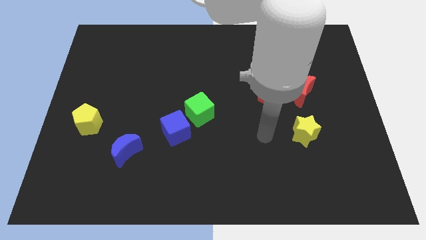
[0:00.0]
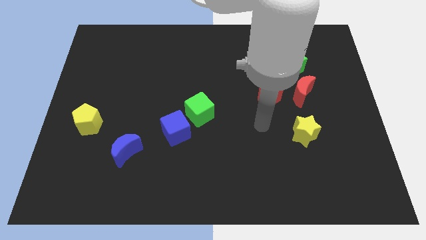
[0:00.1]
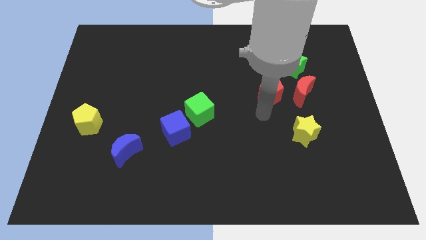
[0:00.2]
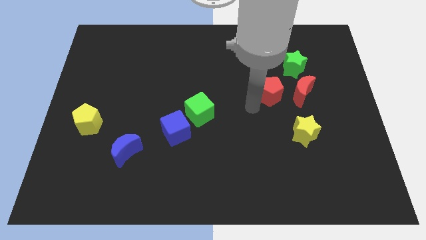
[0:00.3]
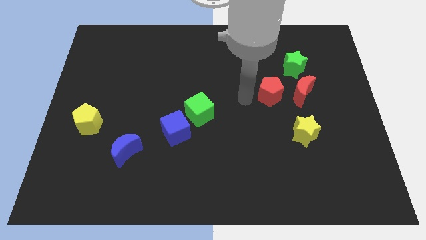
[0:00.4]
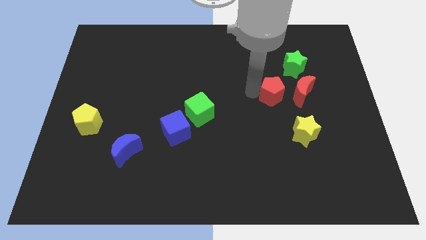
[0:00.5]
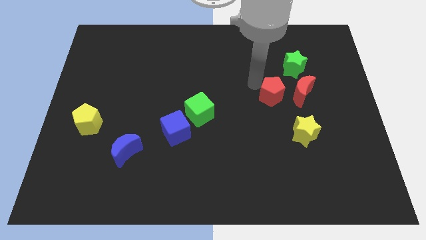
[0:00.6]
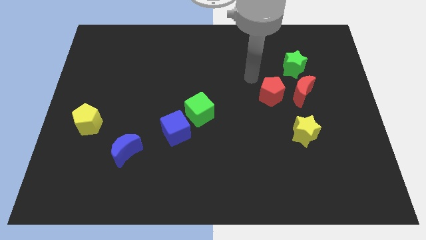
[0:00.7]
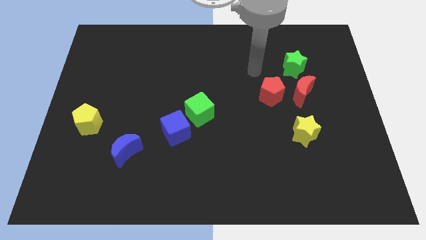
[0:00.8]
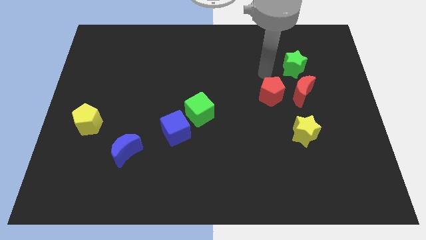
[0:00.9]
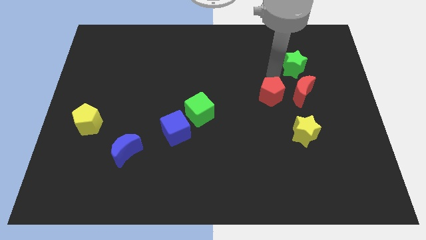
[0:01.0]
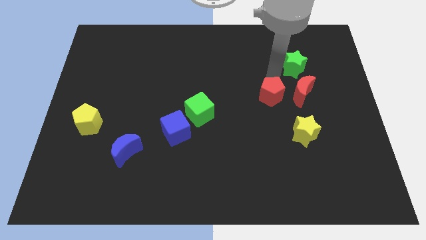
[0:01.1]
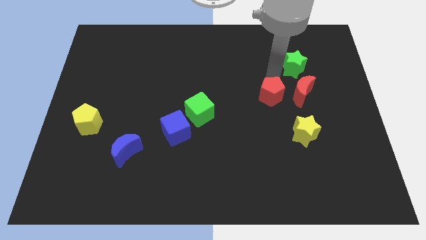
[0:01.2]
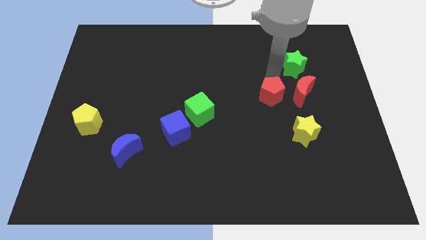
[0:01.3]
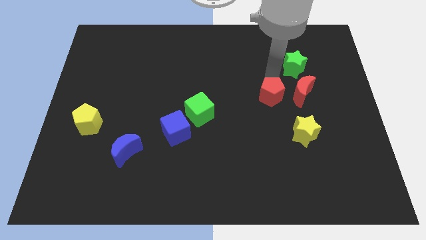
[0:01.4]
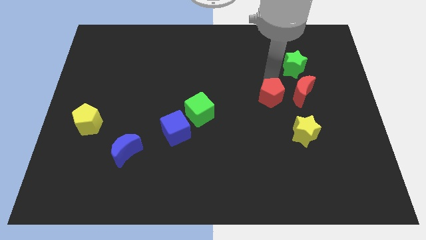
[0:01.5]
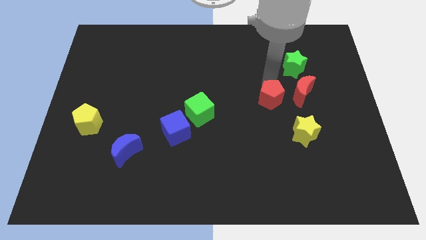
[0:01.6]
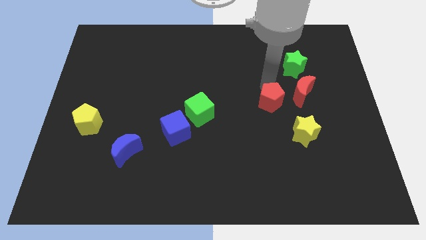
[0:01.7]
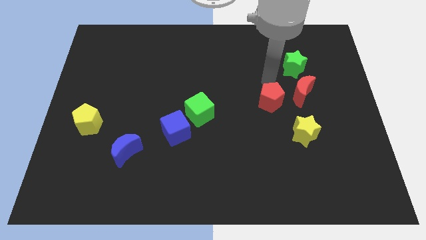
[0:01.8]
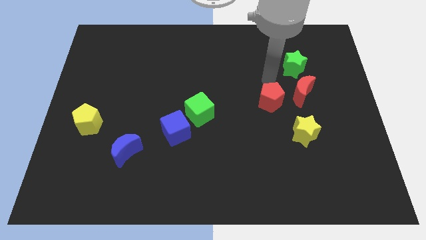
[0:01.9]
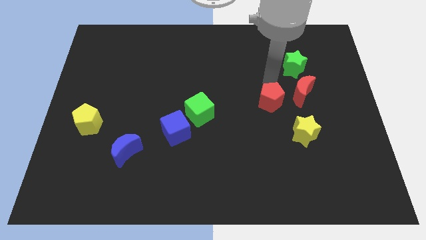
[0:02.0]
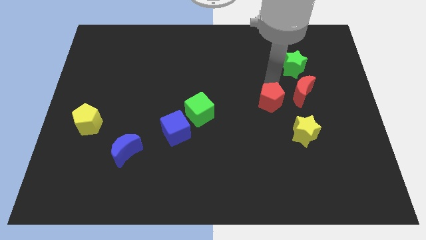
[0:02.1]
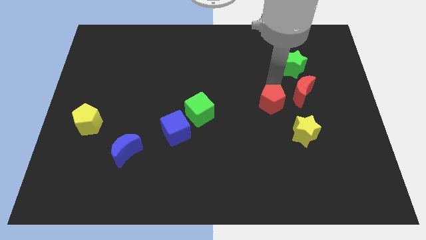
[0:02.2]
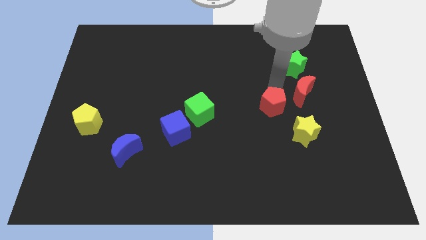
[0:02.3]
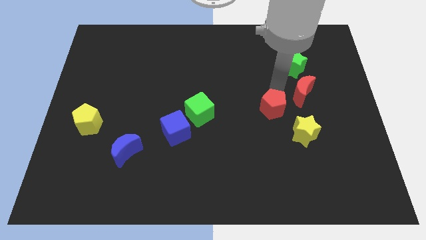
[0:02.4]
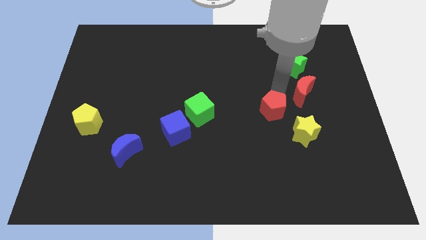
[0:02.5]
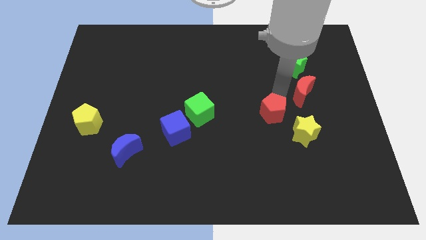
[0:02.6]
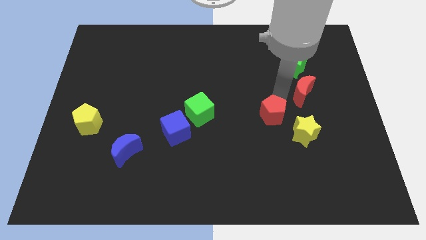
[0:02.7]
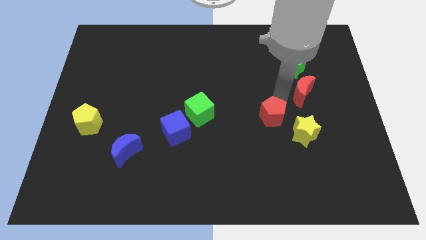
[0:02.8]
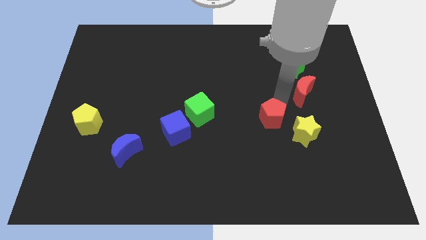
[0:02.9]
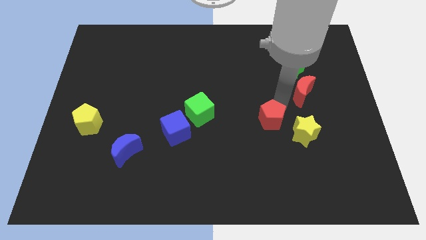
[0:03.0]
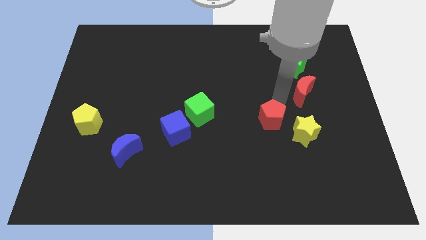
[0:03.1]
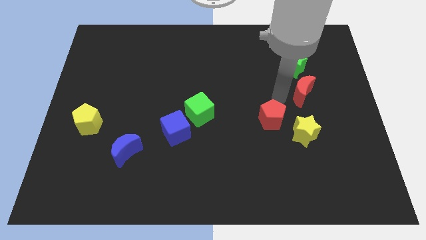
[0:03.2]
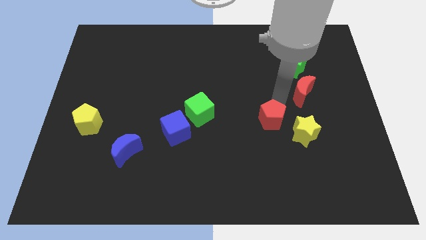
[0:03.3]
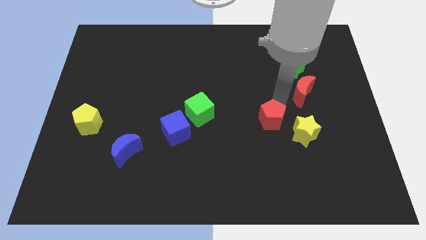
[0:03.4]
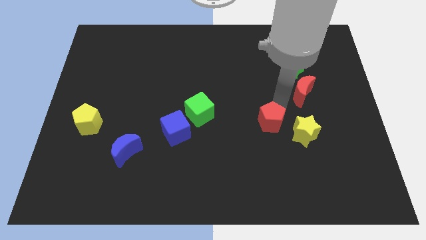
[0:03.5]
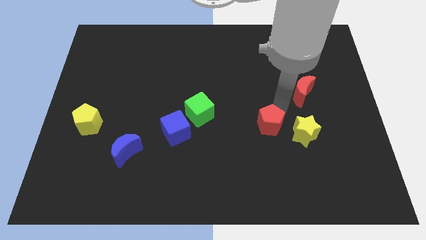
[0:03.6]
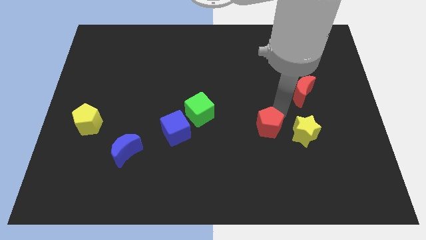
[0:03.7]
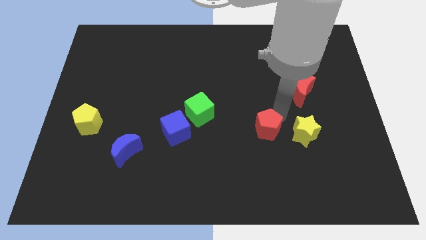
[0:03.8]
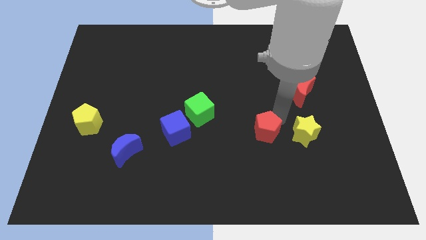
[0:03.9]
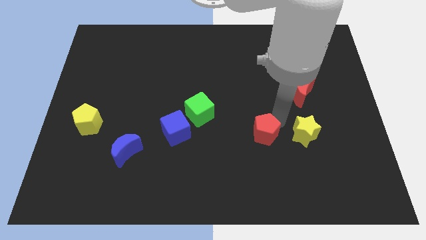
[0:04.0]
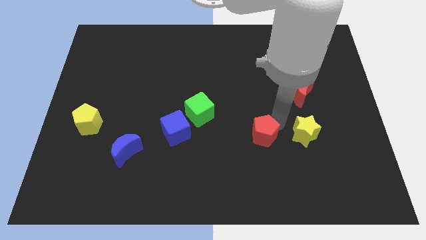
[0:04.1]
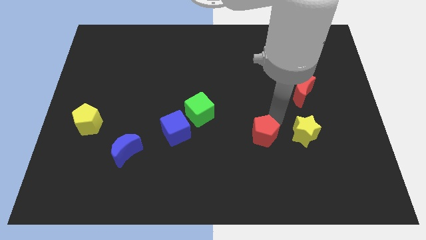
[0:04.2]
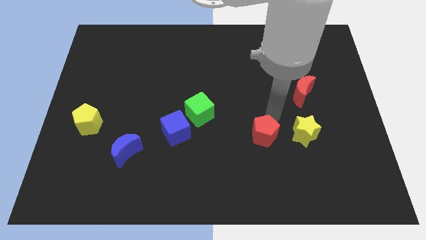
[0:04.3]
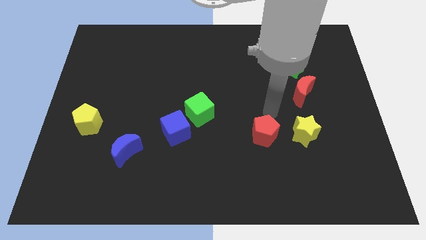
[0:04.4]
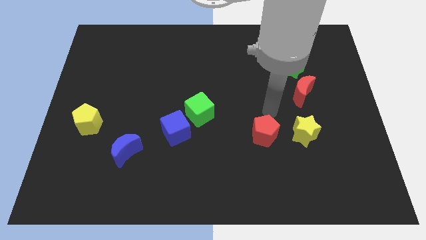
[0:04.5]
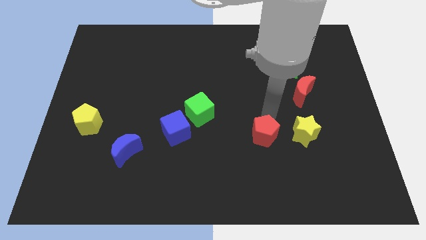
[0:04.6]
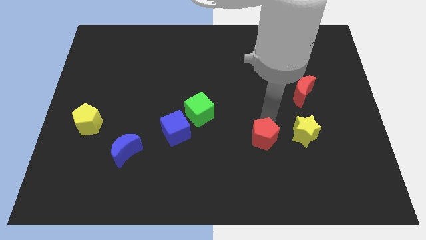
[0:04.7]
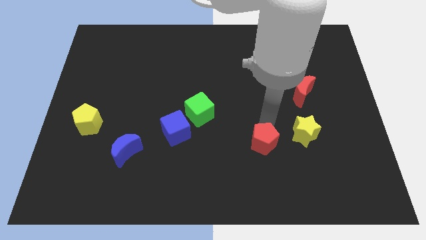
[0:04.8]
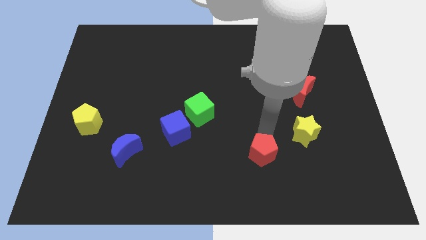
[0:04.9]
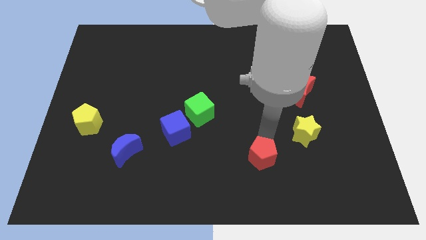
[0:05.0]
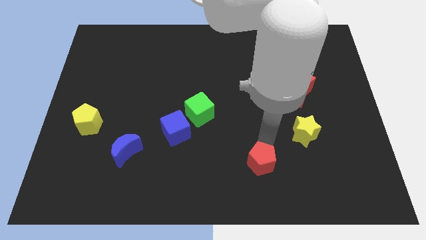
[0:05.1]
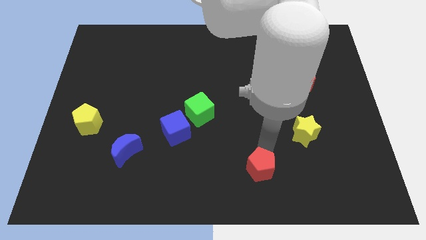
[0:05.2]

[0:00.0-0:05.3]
put the red pentagon to the bottom side

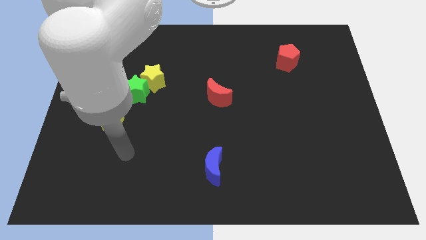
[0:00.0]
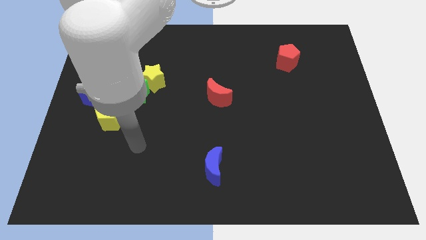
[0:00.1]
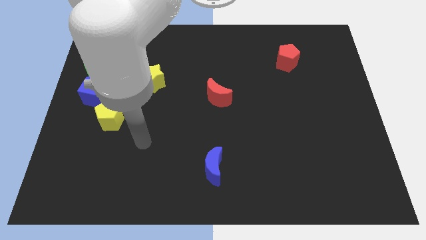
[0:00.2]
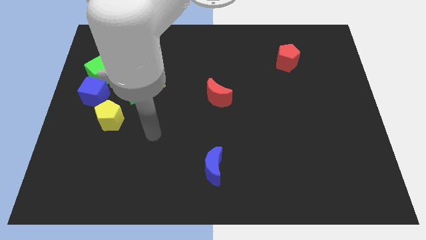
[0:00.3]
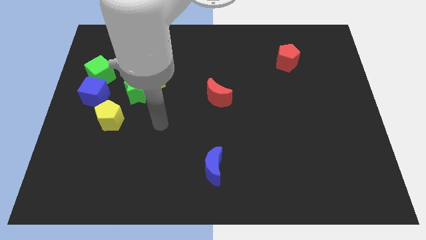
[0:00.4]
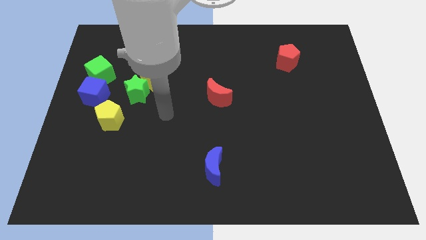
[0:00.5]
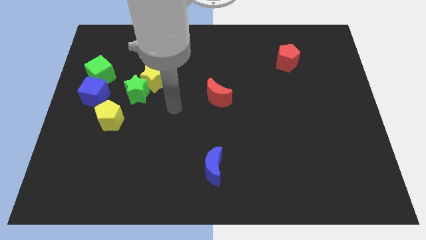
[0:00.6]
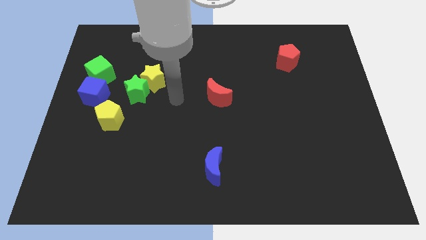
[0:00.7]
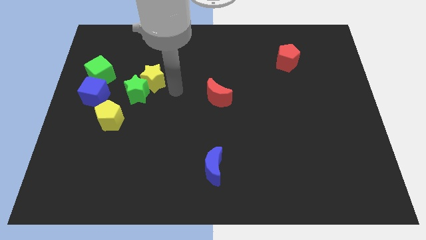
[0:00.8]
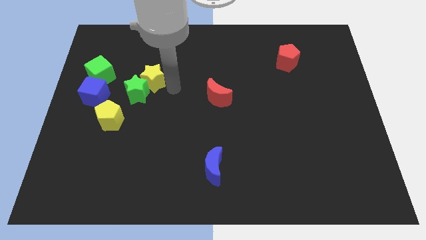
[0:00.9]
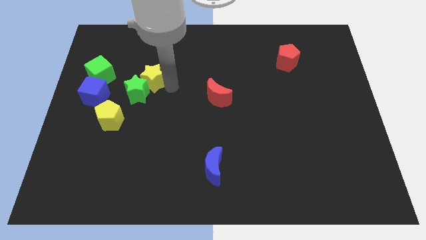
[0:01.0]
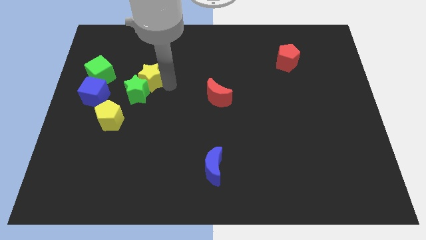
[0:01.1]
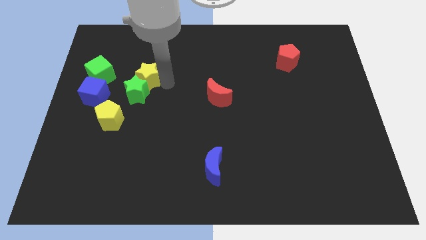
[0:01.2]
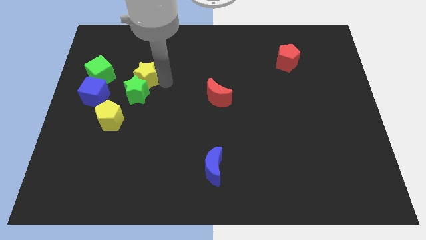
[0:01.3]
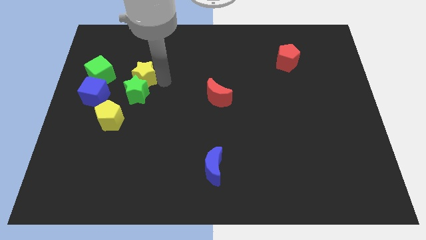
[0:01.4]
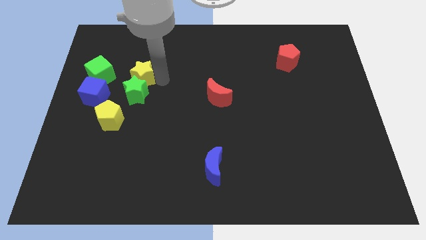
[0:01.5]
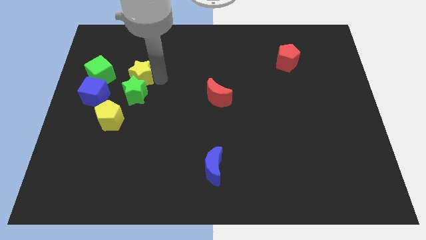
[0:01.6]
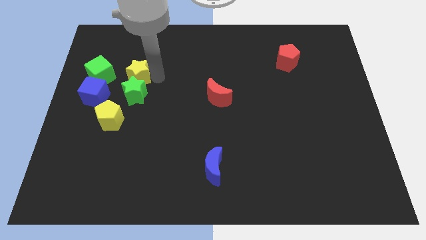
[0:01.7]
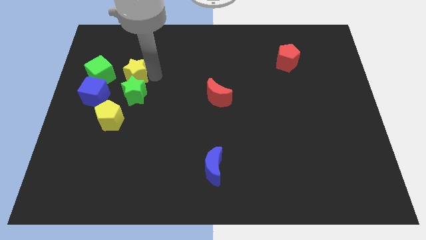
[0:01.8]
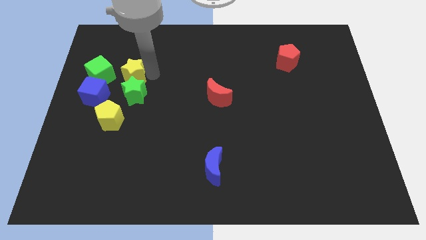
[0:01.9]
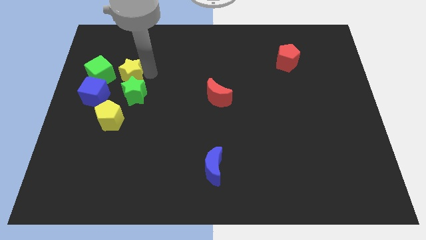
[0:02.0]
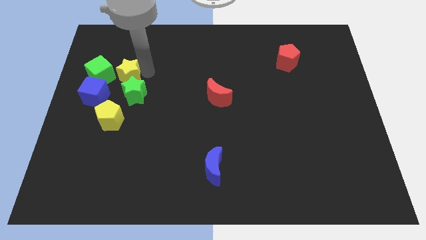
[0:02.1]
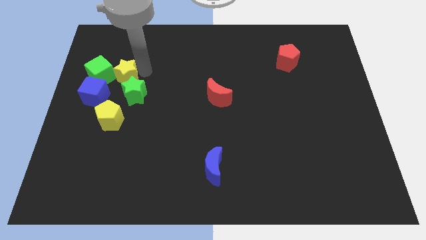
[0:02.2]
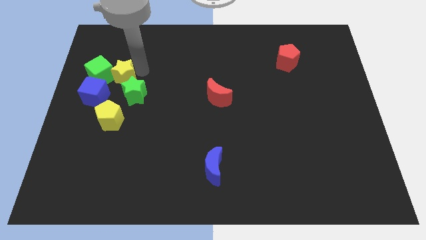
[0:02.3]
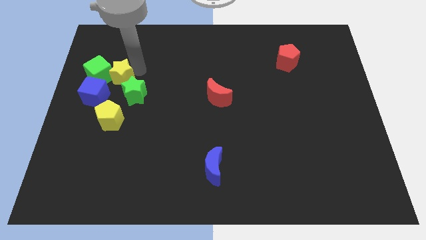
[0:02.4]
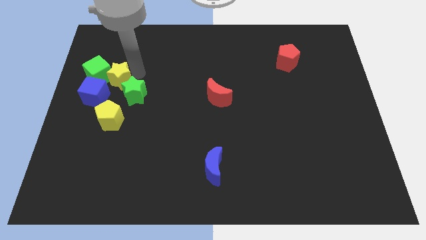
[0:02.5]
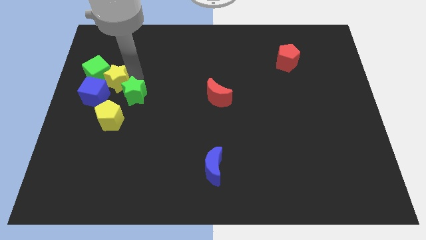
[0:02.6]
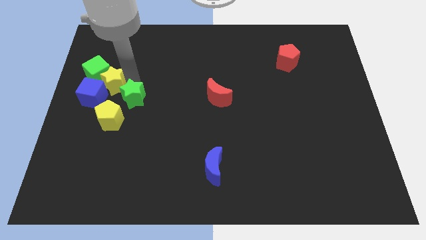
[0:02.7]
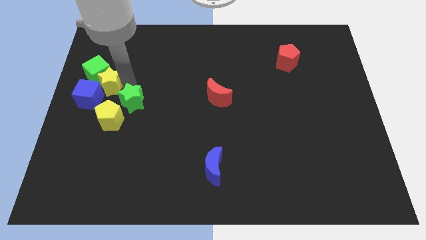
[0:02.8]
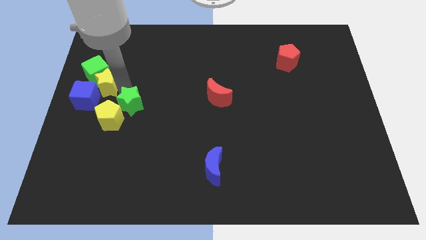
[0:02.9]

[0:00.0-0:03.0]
slide the yellow star to the center left
